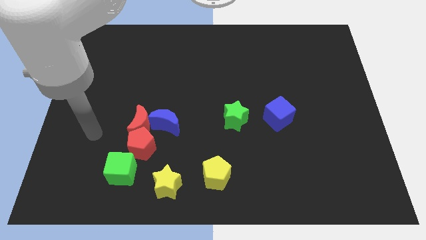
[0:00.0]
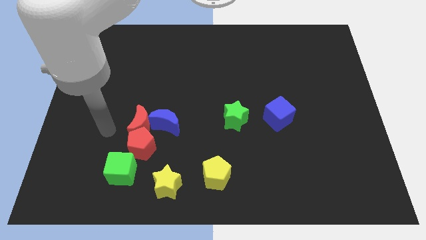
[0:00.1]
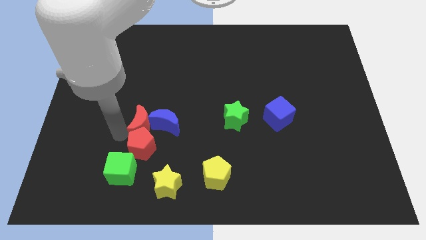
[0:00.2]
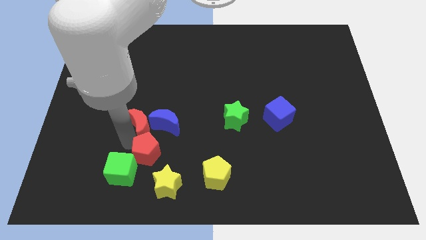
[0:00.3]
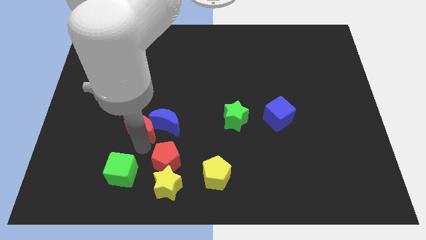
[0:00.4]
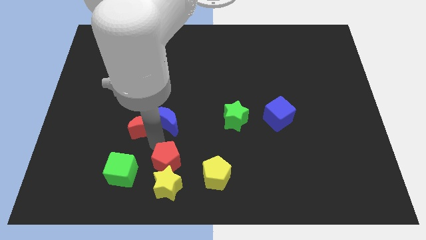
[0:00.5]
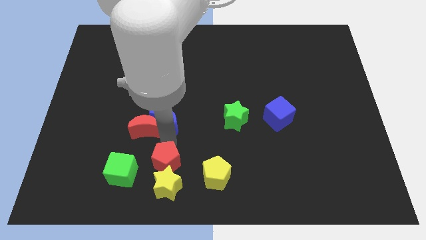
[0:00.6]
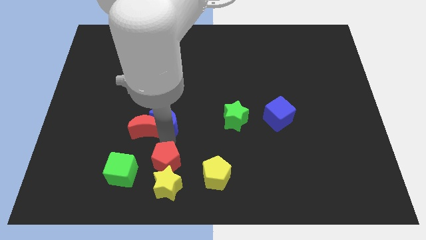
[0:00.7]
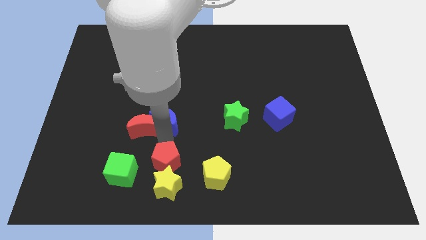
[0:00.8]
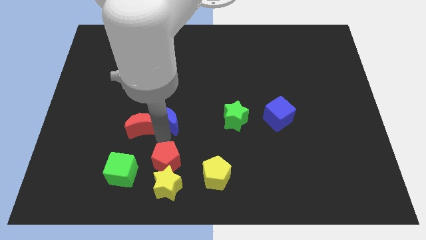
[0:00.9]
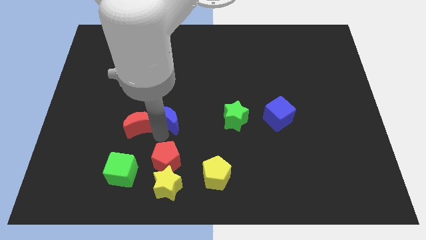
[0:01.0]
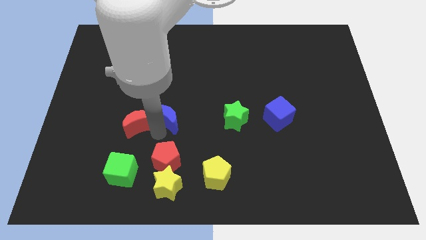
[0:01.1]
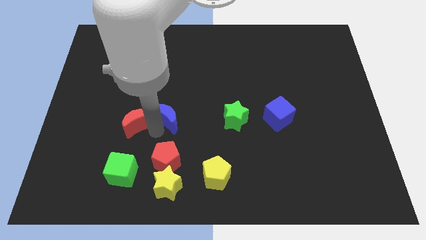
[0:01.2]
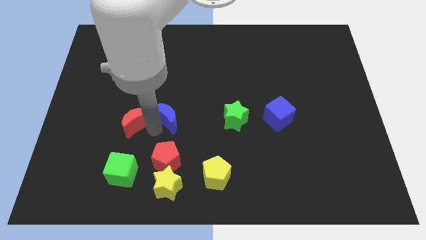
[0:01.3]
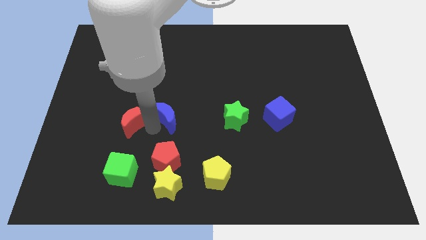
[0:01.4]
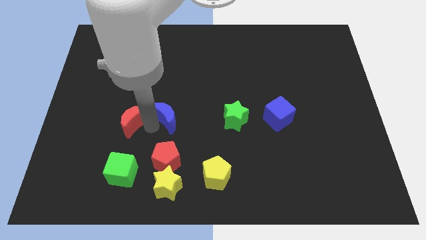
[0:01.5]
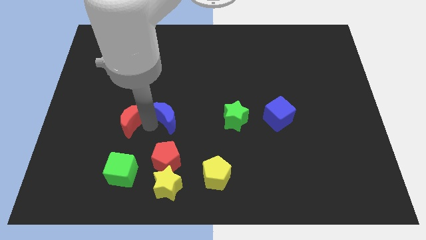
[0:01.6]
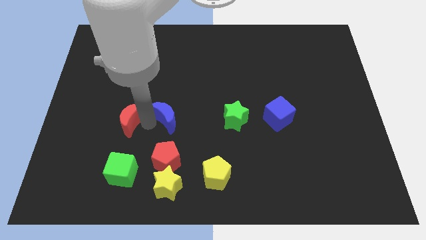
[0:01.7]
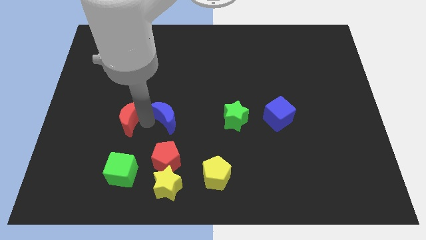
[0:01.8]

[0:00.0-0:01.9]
pull the red moon apart from the red pentagon and blue moon

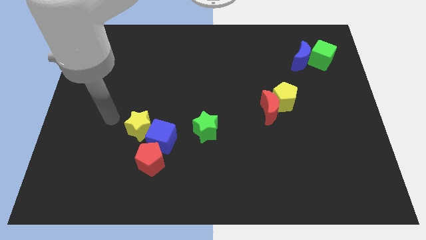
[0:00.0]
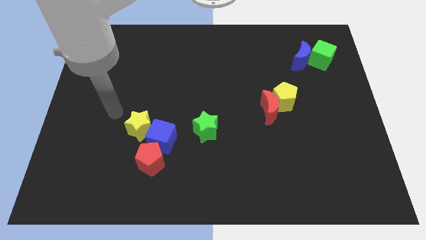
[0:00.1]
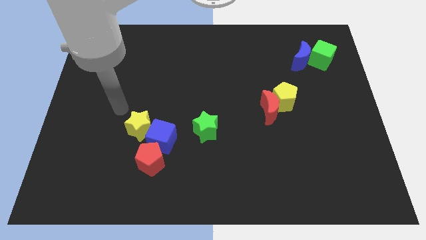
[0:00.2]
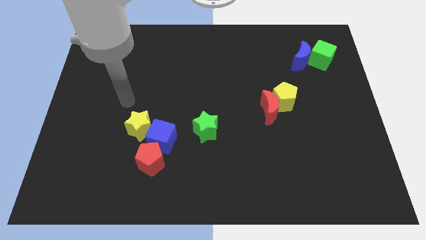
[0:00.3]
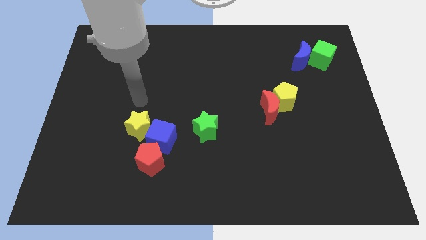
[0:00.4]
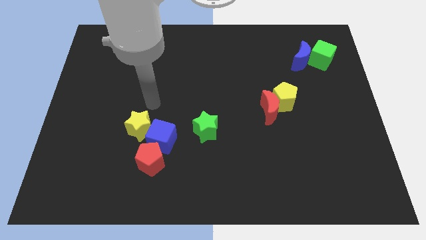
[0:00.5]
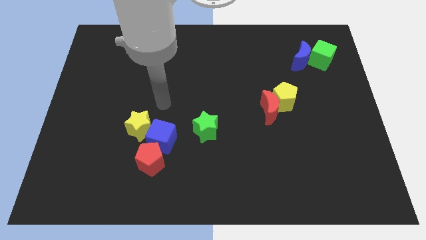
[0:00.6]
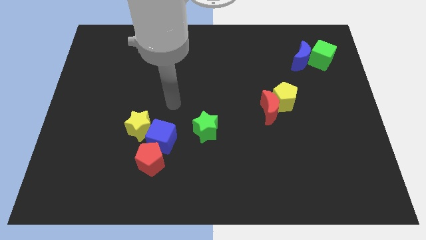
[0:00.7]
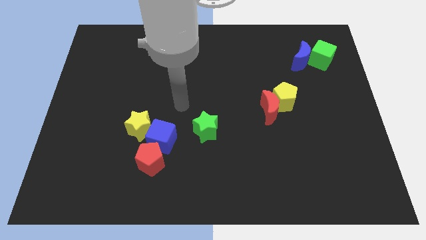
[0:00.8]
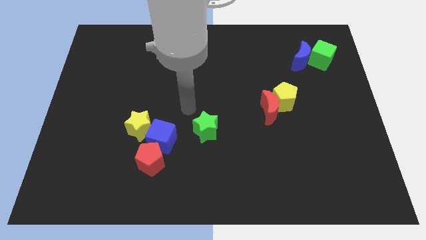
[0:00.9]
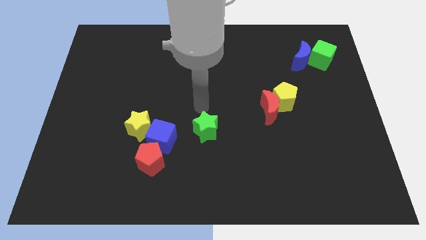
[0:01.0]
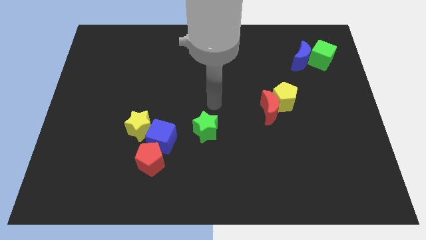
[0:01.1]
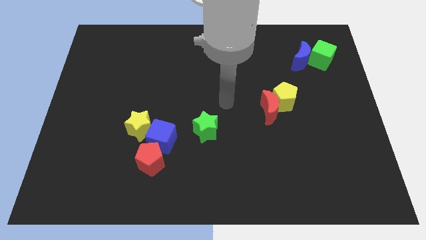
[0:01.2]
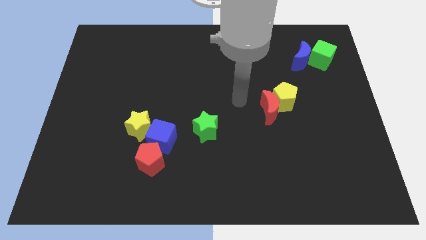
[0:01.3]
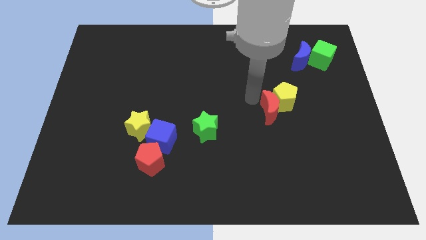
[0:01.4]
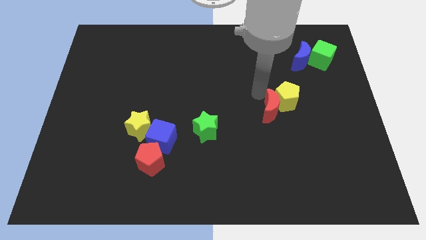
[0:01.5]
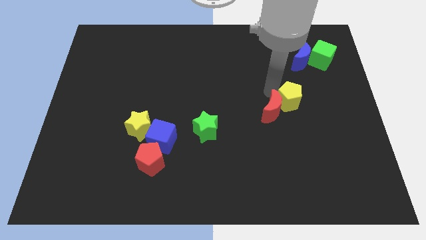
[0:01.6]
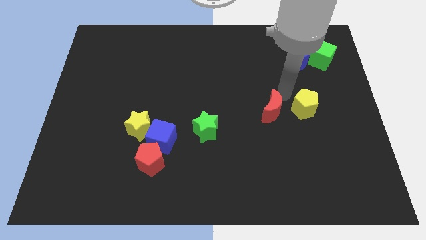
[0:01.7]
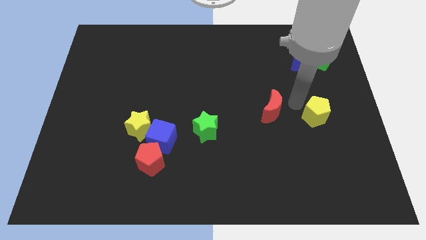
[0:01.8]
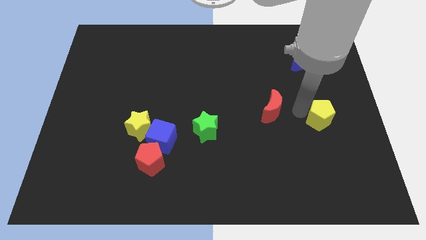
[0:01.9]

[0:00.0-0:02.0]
move the red moon away from the yellow pentagon

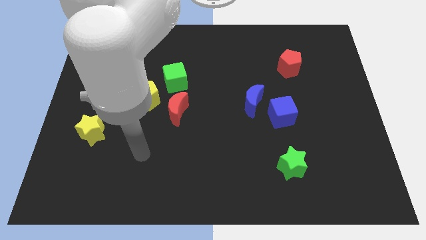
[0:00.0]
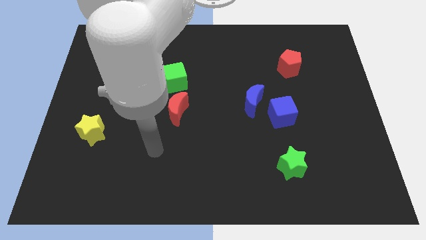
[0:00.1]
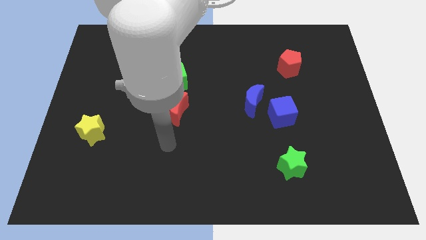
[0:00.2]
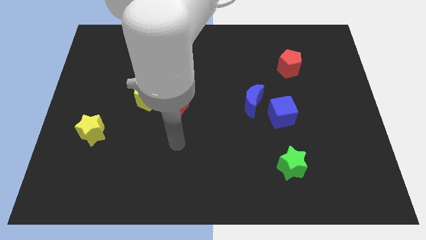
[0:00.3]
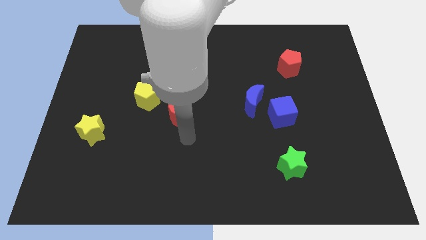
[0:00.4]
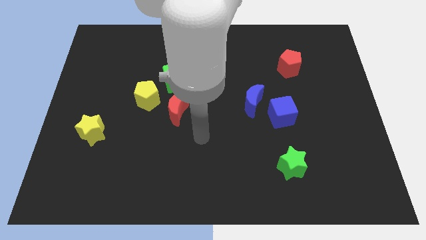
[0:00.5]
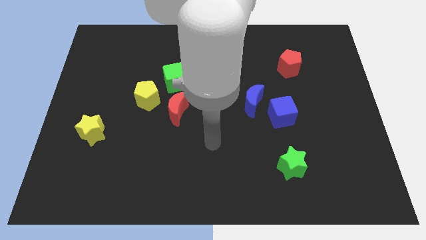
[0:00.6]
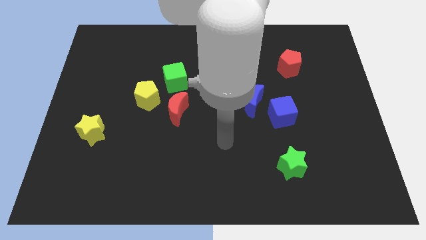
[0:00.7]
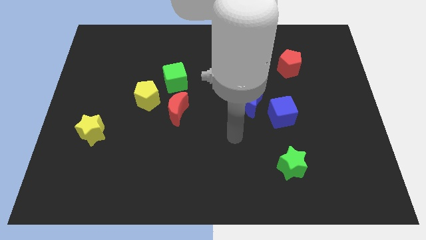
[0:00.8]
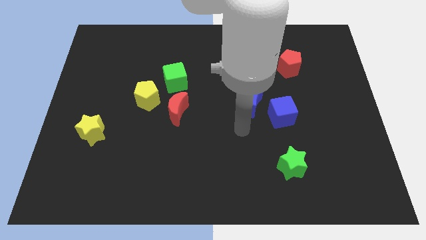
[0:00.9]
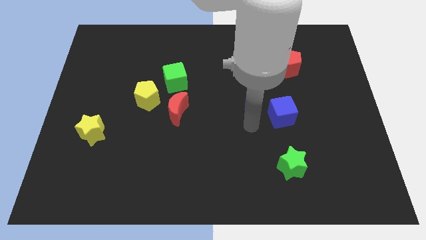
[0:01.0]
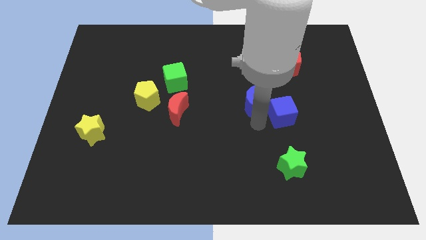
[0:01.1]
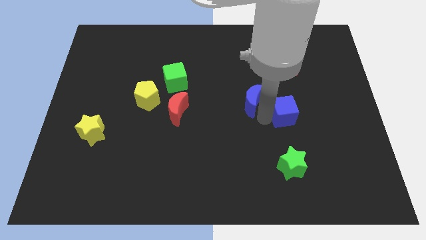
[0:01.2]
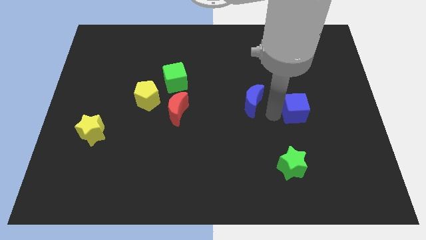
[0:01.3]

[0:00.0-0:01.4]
pull the blue moon apart from the blue cube

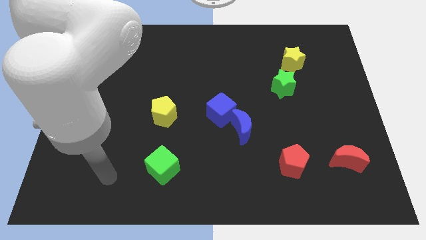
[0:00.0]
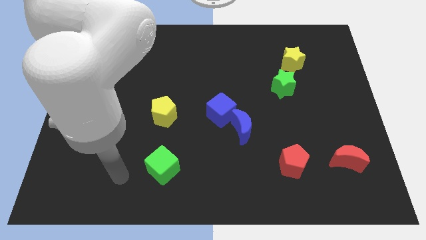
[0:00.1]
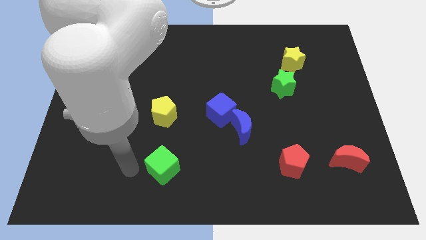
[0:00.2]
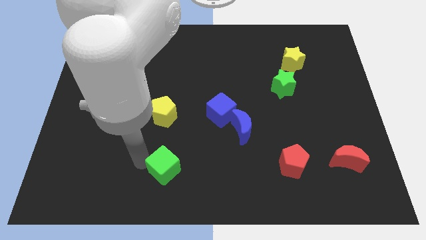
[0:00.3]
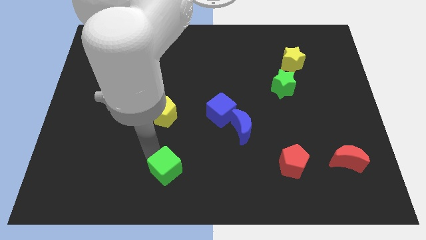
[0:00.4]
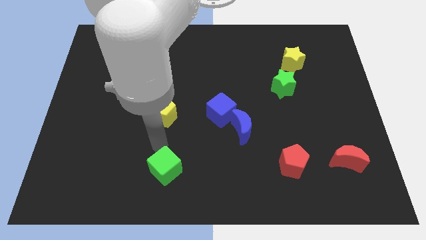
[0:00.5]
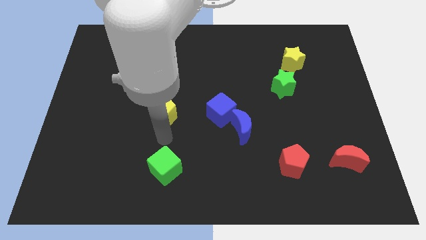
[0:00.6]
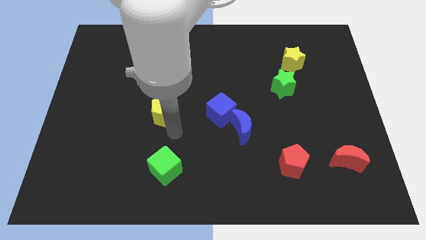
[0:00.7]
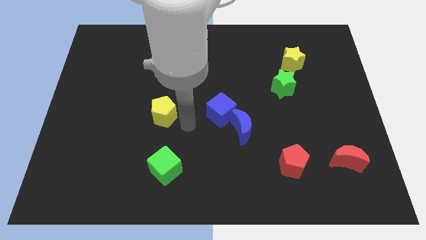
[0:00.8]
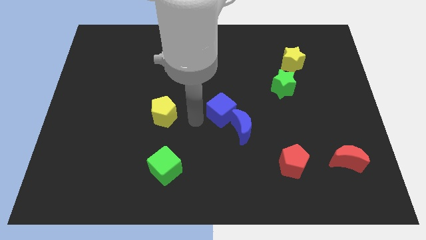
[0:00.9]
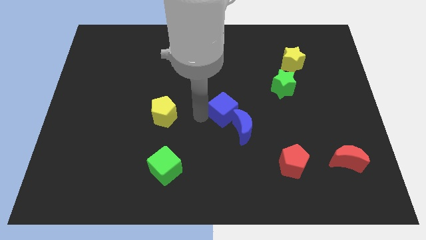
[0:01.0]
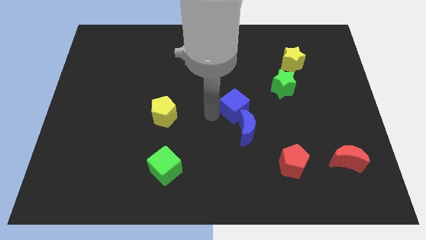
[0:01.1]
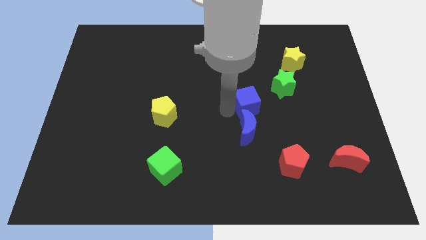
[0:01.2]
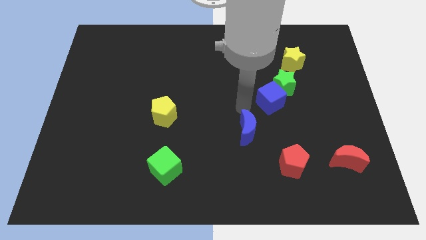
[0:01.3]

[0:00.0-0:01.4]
move the blue moon away from the blue cube

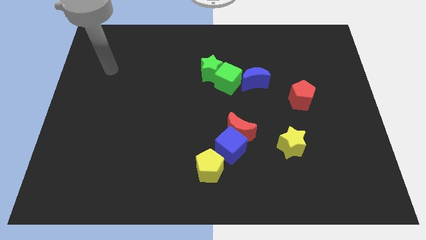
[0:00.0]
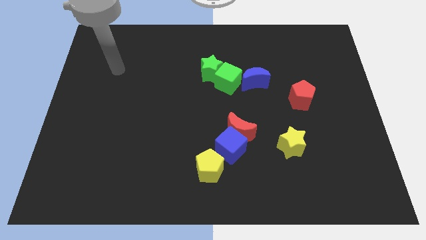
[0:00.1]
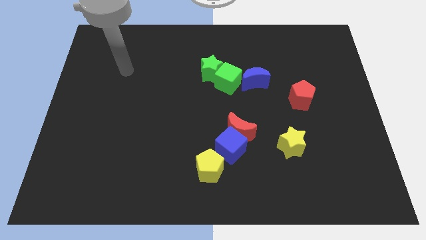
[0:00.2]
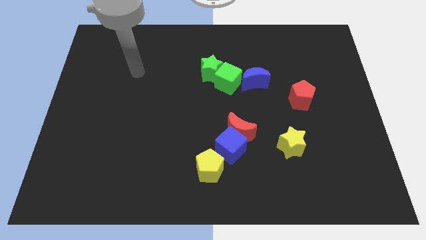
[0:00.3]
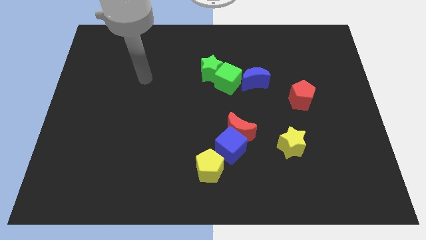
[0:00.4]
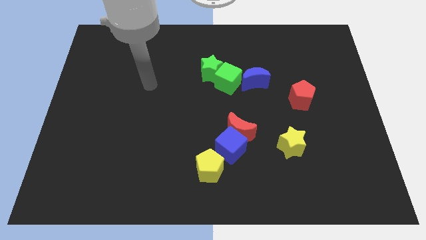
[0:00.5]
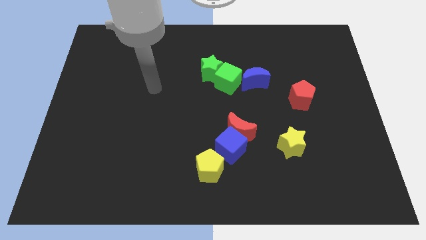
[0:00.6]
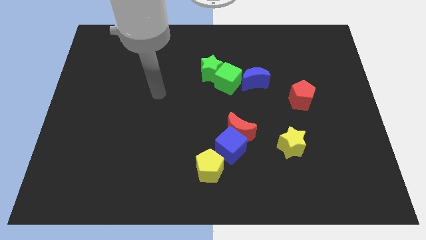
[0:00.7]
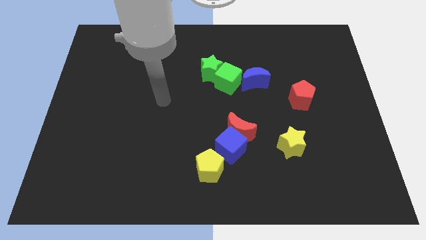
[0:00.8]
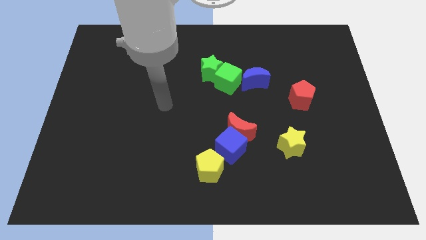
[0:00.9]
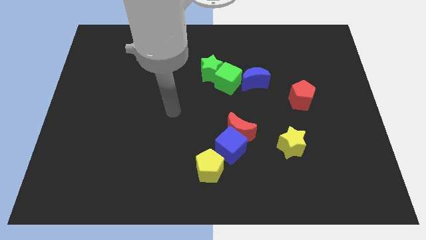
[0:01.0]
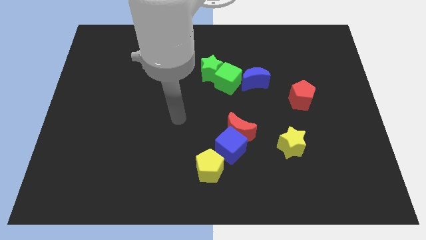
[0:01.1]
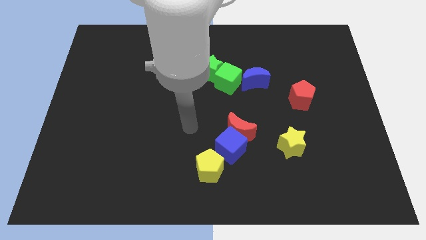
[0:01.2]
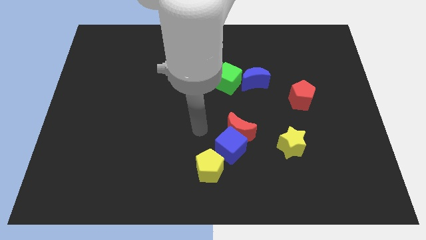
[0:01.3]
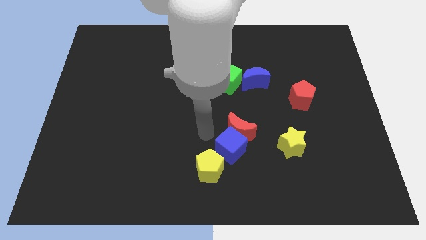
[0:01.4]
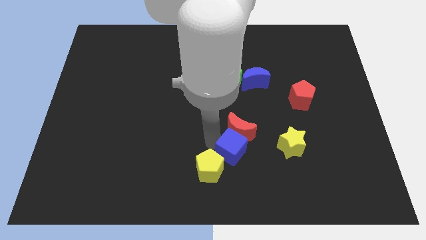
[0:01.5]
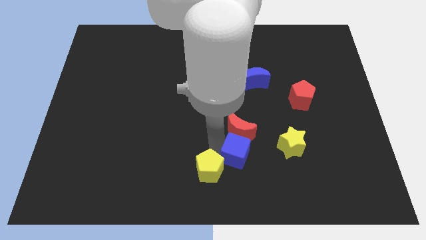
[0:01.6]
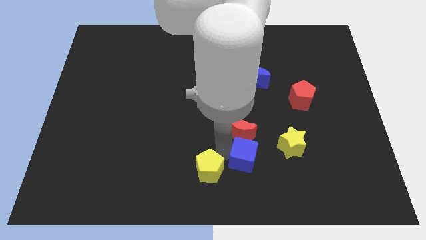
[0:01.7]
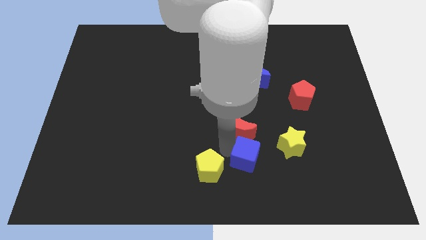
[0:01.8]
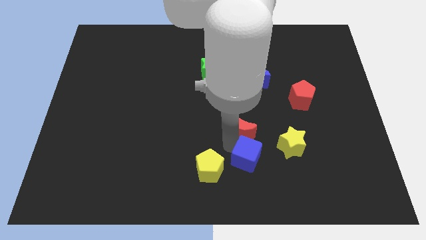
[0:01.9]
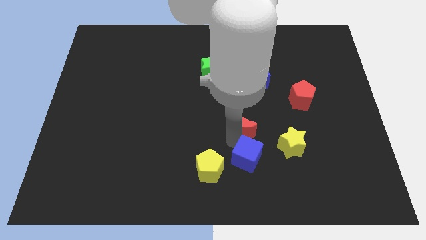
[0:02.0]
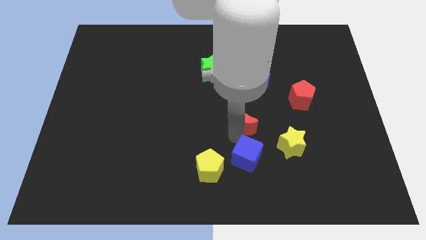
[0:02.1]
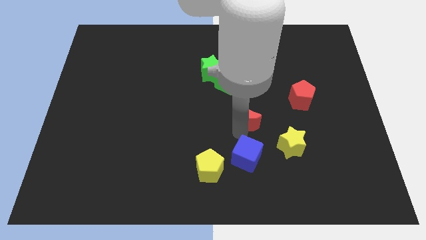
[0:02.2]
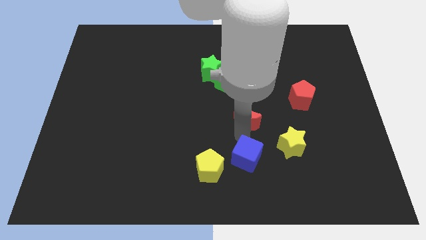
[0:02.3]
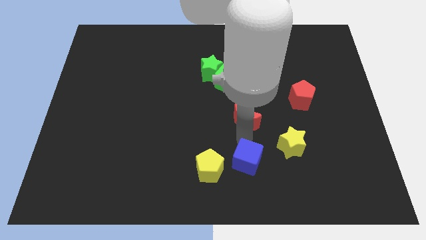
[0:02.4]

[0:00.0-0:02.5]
move the red moon away from the blue cube
